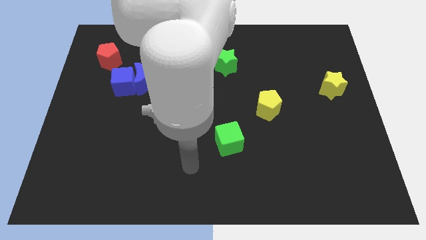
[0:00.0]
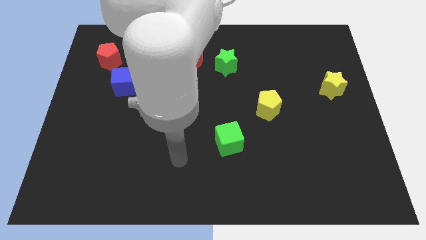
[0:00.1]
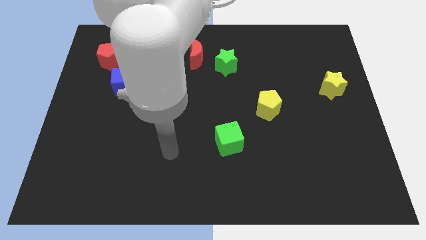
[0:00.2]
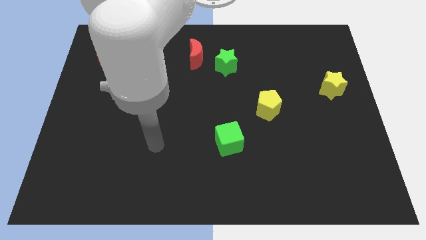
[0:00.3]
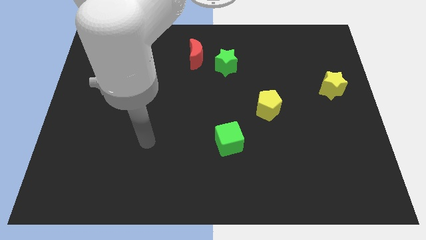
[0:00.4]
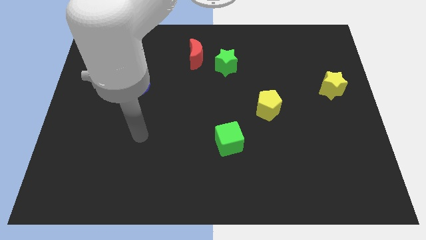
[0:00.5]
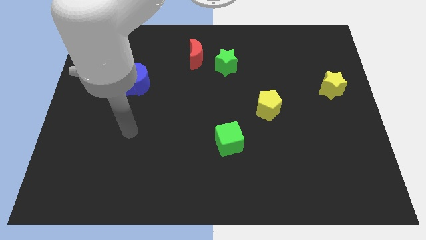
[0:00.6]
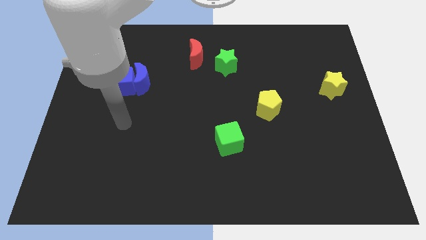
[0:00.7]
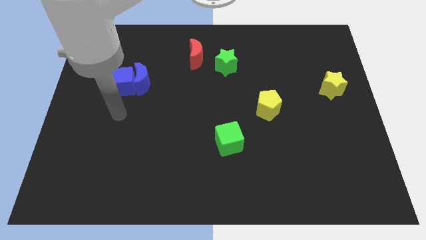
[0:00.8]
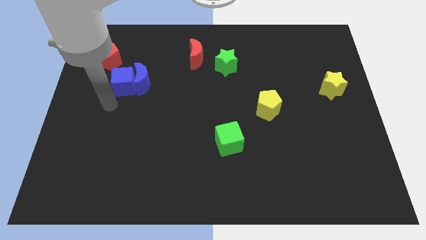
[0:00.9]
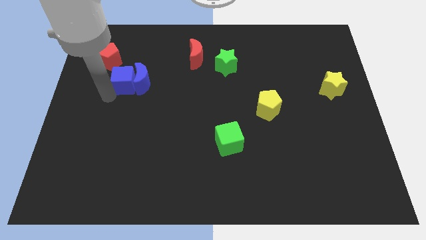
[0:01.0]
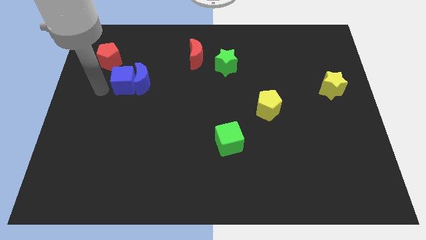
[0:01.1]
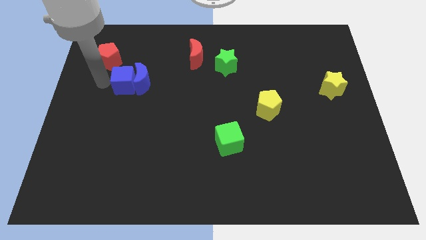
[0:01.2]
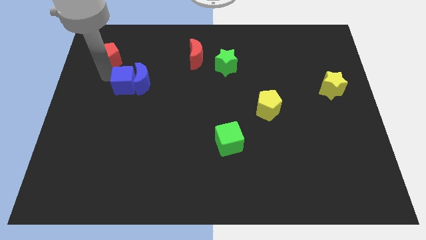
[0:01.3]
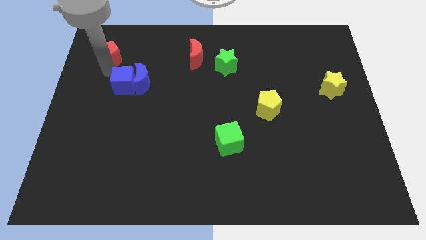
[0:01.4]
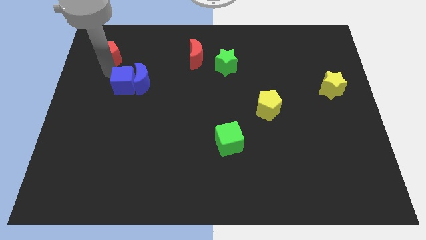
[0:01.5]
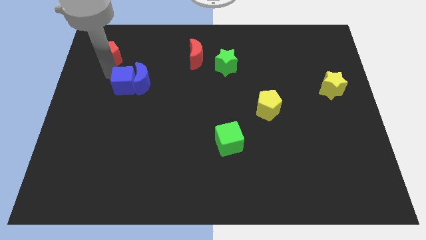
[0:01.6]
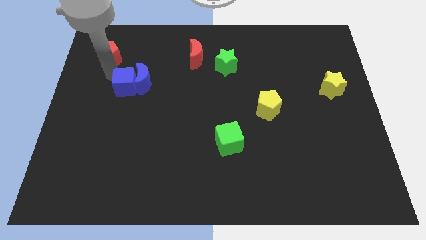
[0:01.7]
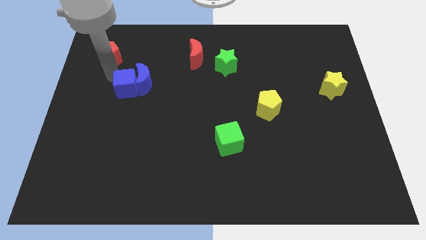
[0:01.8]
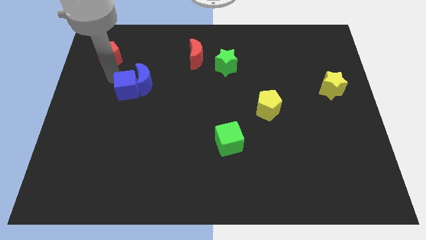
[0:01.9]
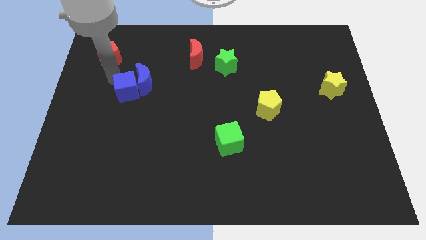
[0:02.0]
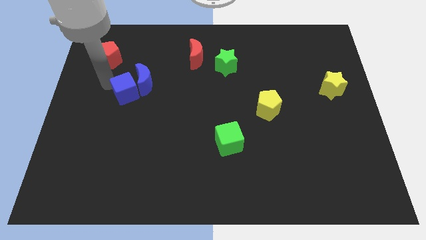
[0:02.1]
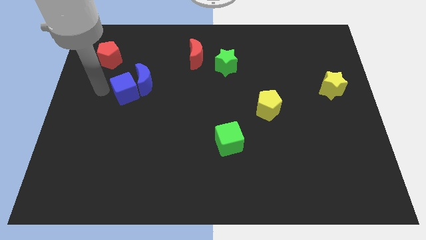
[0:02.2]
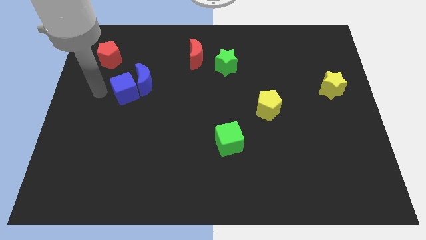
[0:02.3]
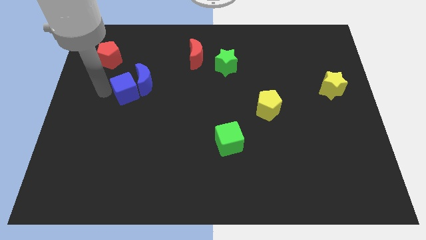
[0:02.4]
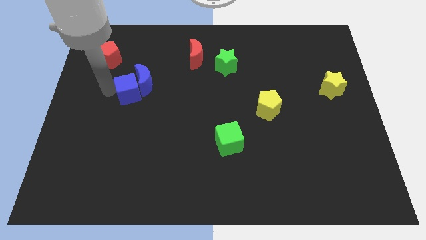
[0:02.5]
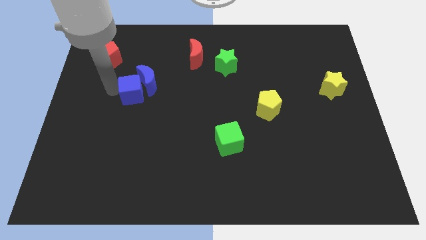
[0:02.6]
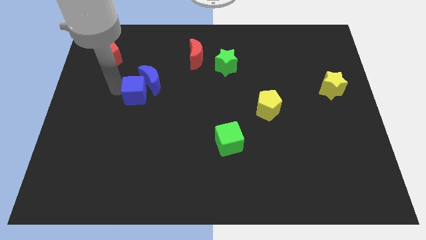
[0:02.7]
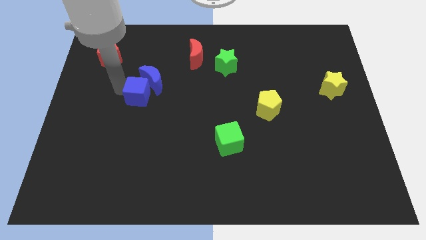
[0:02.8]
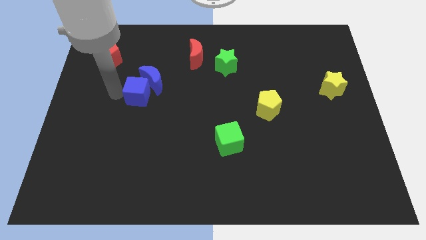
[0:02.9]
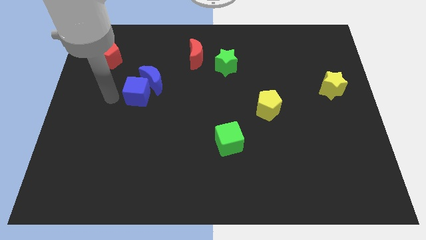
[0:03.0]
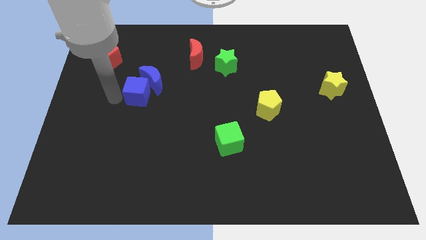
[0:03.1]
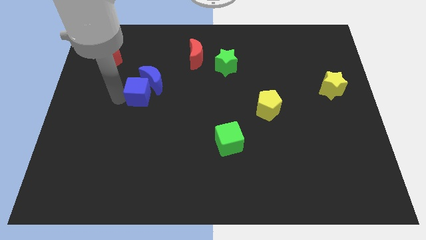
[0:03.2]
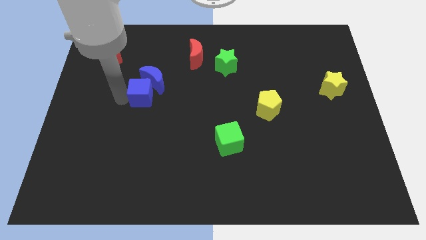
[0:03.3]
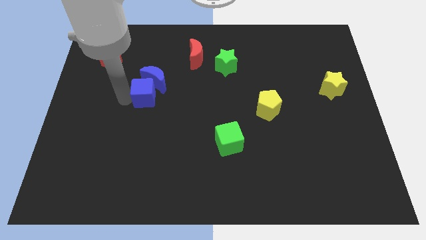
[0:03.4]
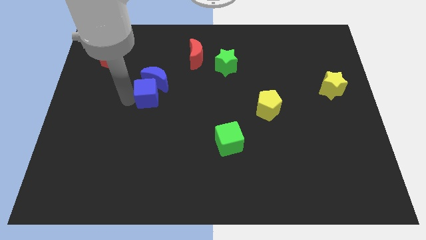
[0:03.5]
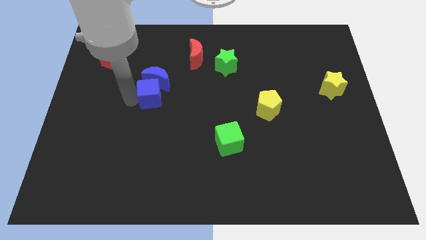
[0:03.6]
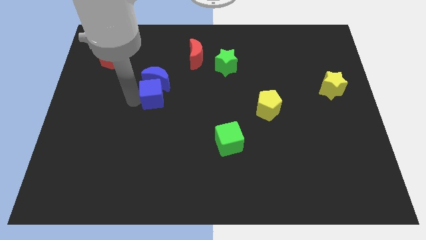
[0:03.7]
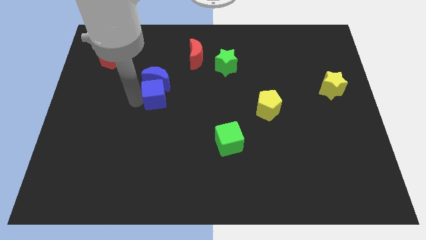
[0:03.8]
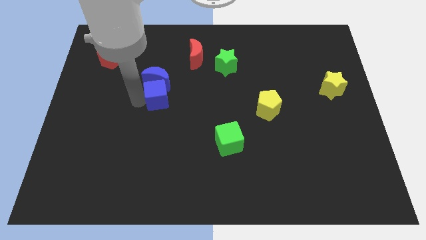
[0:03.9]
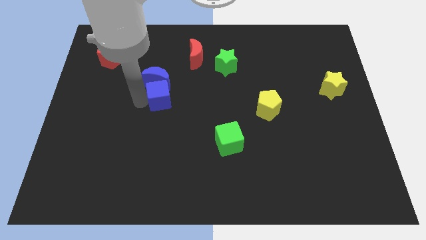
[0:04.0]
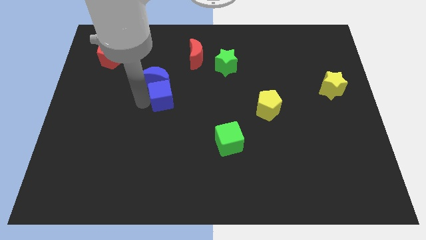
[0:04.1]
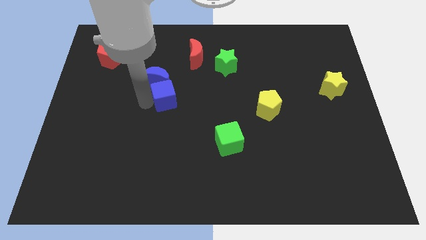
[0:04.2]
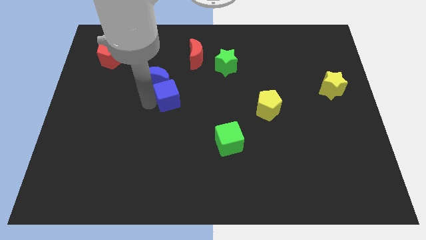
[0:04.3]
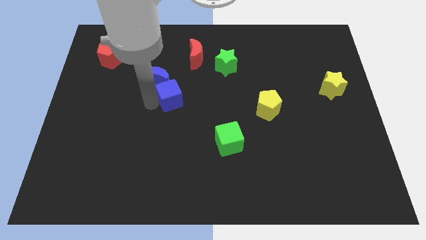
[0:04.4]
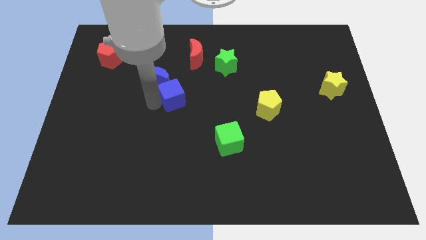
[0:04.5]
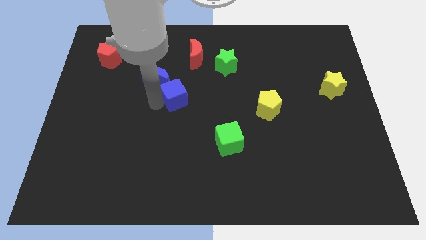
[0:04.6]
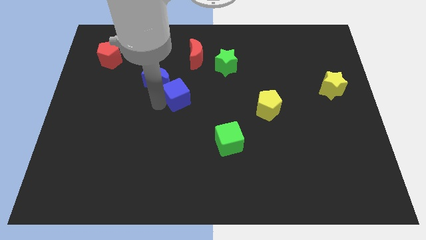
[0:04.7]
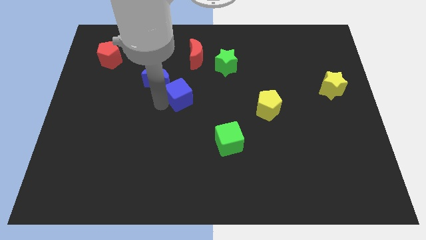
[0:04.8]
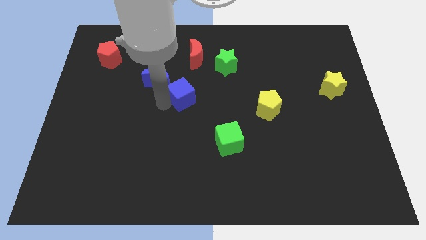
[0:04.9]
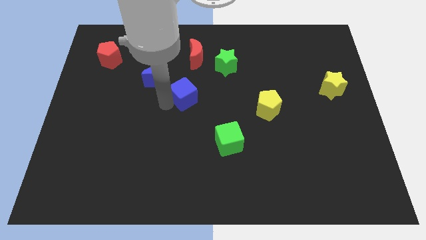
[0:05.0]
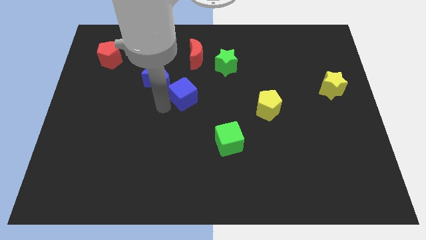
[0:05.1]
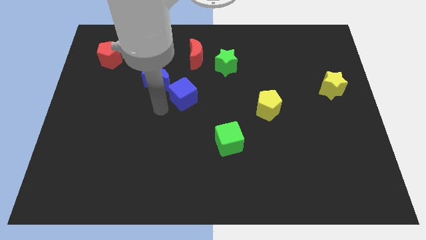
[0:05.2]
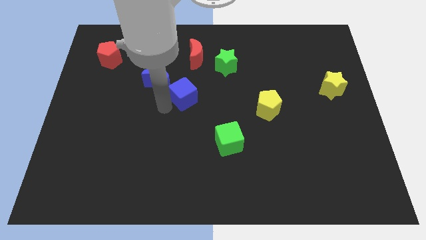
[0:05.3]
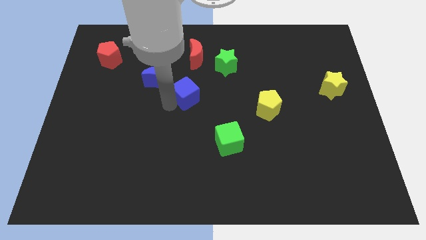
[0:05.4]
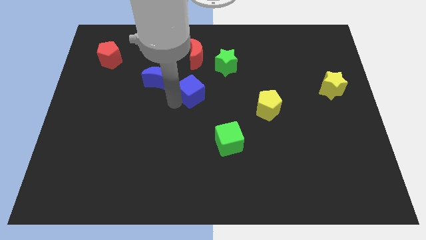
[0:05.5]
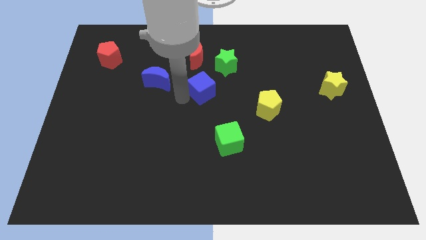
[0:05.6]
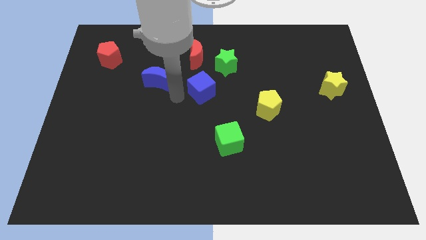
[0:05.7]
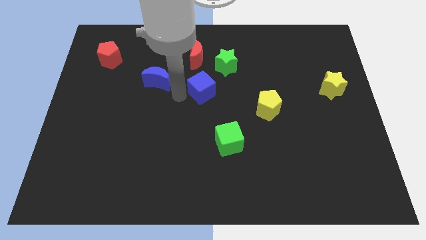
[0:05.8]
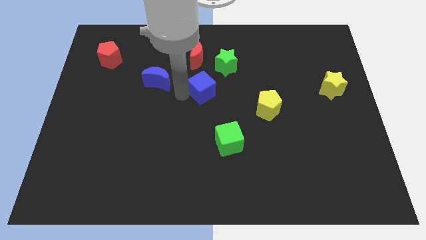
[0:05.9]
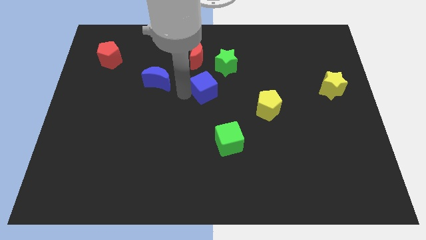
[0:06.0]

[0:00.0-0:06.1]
move the blue cube to the right

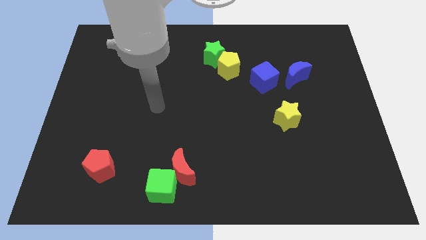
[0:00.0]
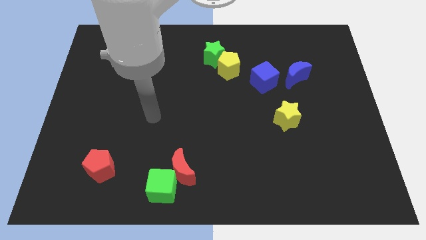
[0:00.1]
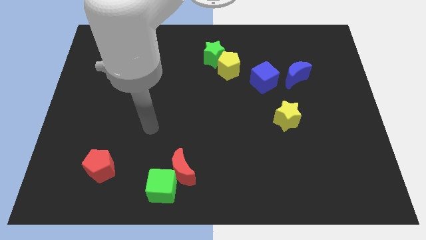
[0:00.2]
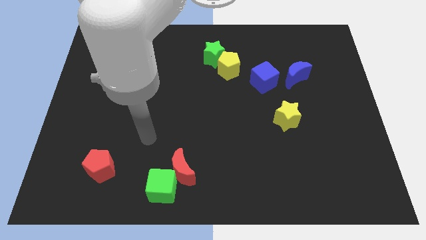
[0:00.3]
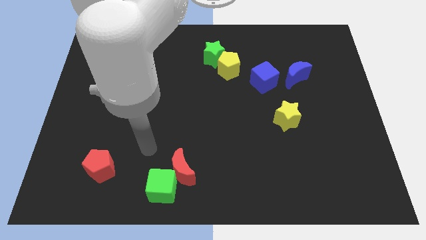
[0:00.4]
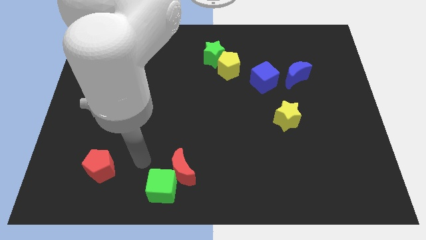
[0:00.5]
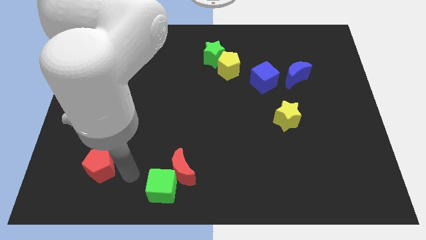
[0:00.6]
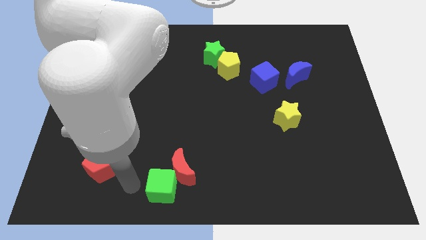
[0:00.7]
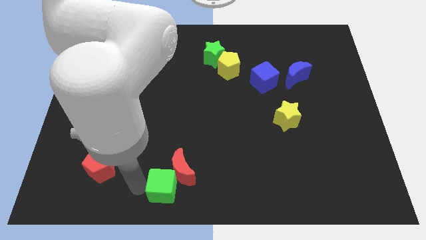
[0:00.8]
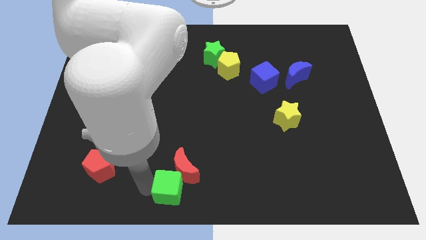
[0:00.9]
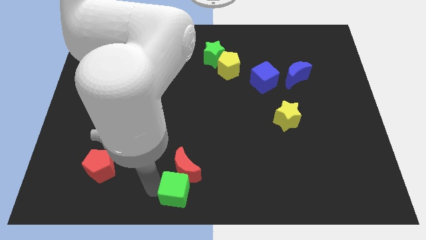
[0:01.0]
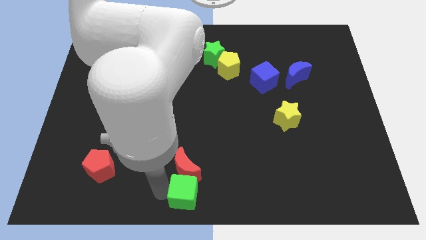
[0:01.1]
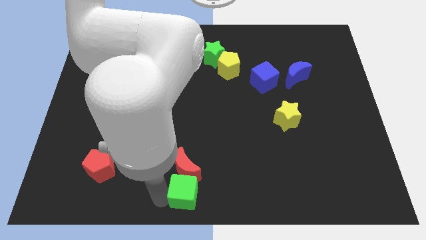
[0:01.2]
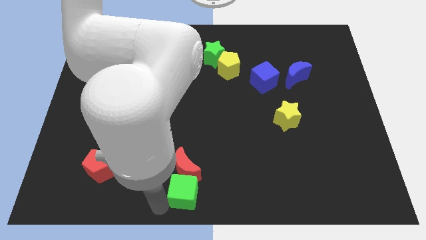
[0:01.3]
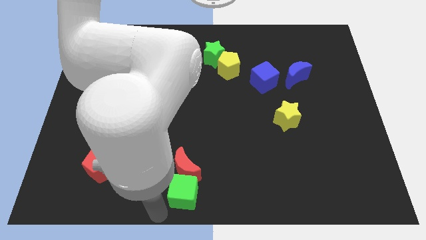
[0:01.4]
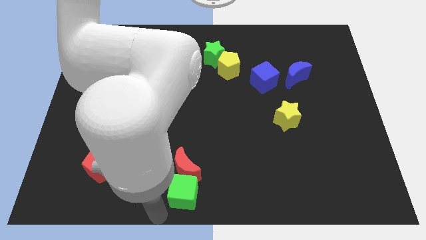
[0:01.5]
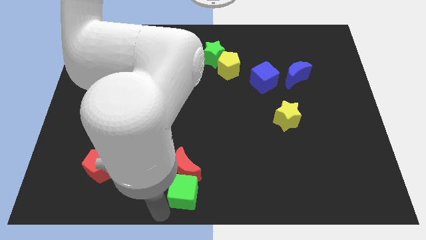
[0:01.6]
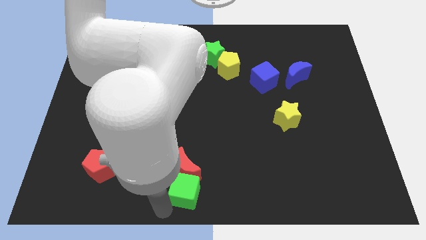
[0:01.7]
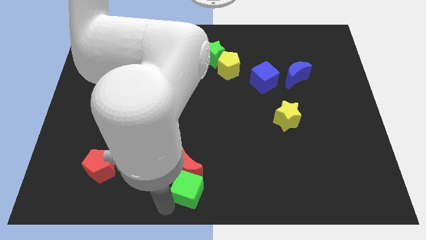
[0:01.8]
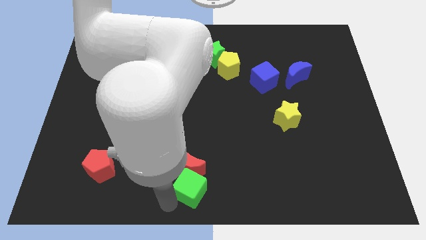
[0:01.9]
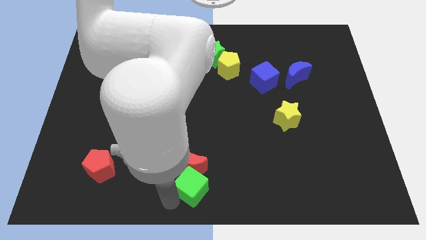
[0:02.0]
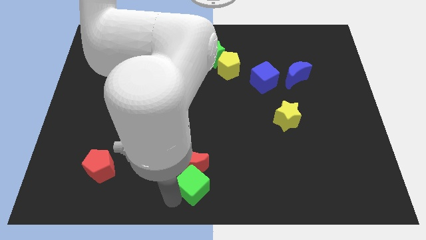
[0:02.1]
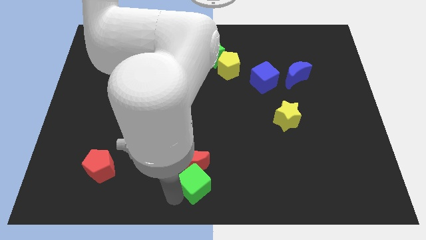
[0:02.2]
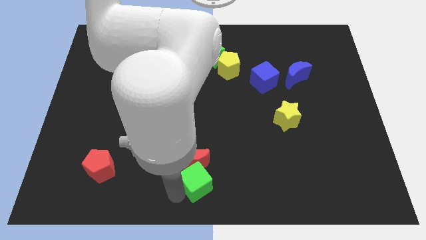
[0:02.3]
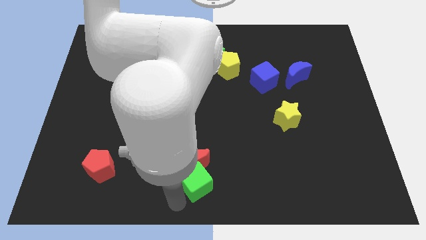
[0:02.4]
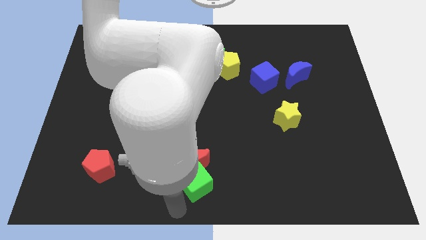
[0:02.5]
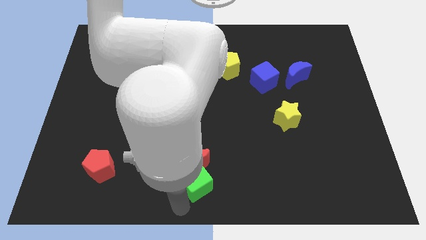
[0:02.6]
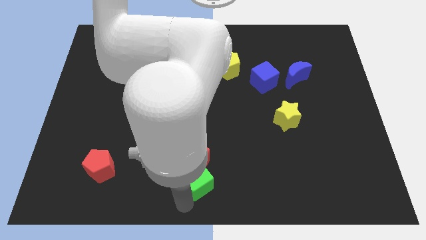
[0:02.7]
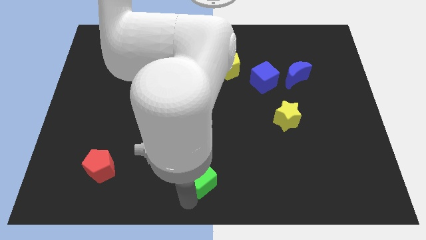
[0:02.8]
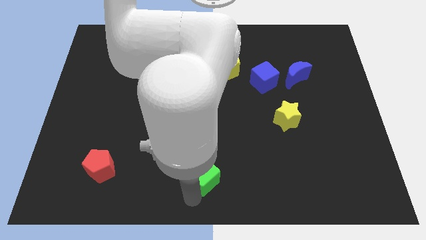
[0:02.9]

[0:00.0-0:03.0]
slightly slide the green cube upwards and right
